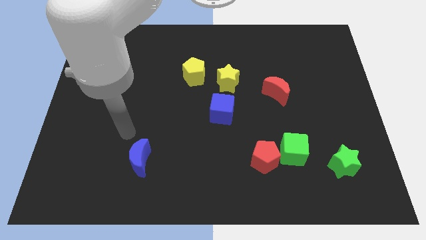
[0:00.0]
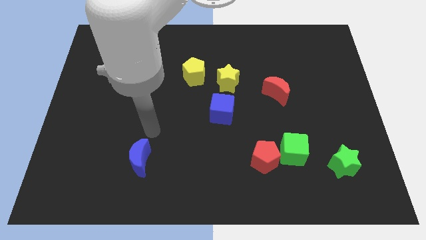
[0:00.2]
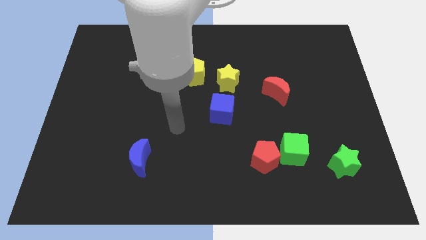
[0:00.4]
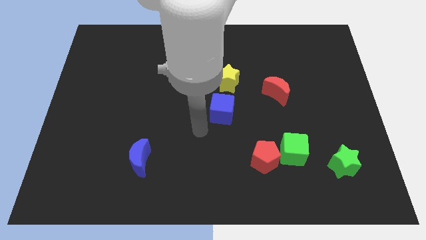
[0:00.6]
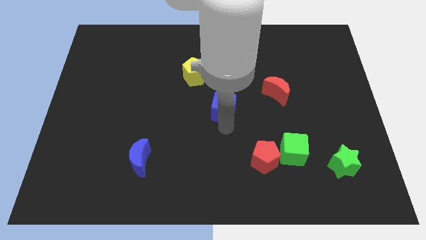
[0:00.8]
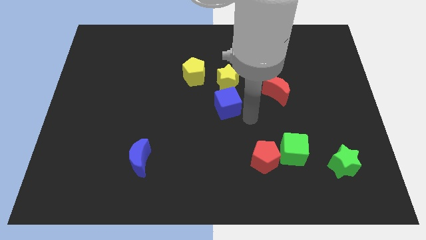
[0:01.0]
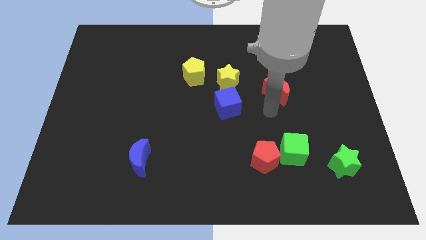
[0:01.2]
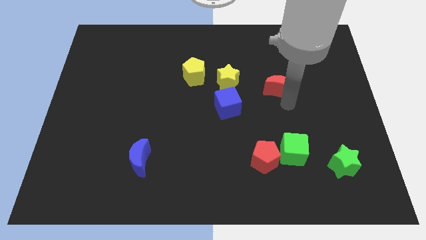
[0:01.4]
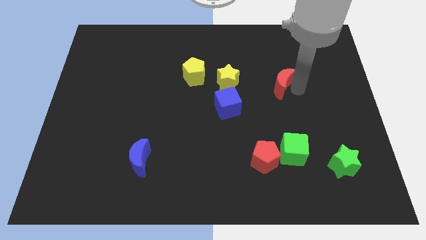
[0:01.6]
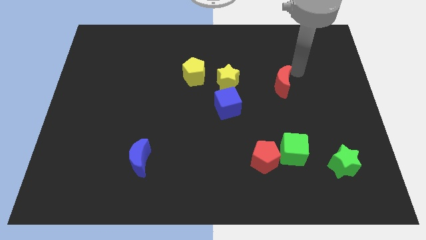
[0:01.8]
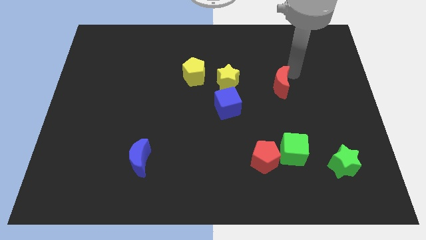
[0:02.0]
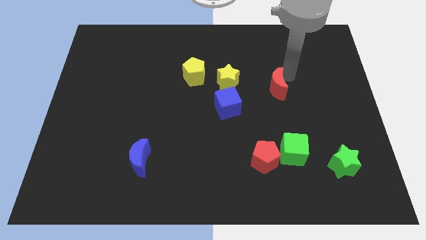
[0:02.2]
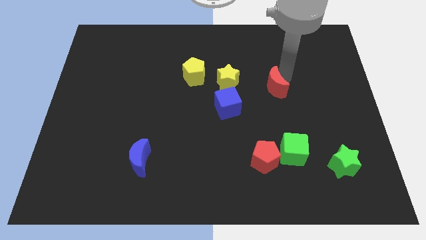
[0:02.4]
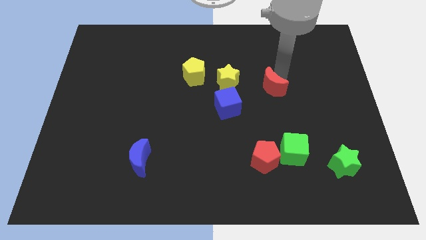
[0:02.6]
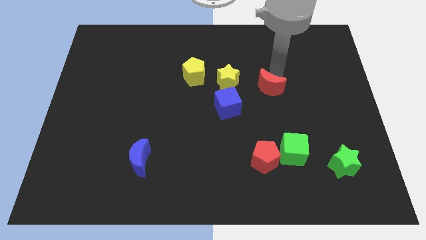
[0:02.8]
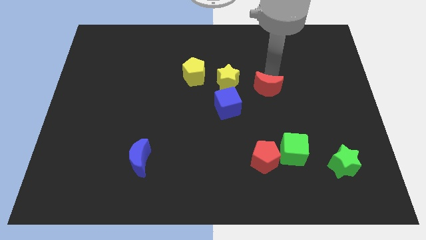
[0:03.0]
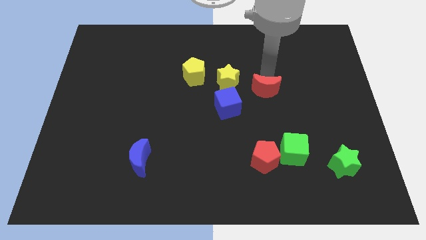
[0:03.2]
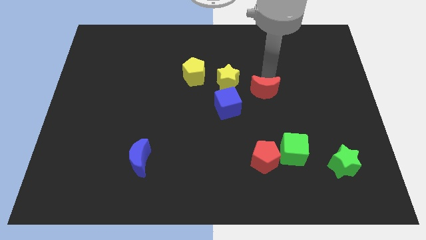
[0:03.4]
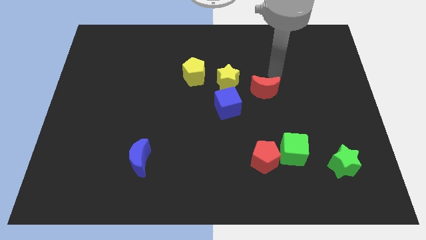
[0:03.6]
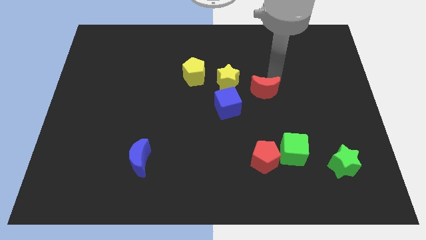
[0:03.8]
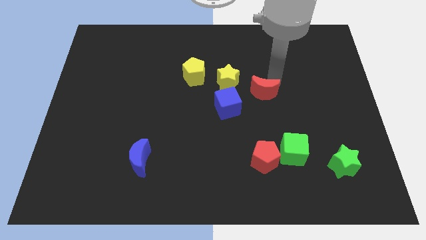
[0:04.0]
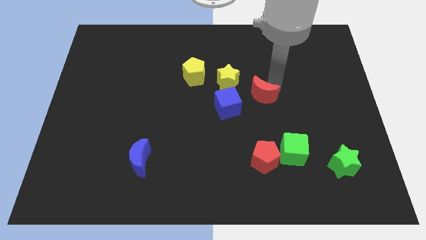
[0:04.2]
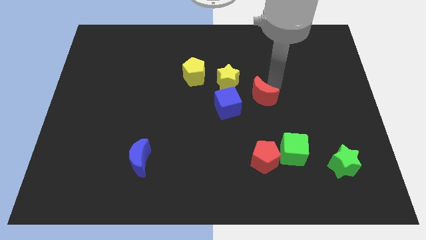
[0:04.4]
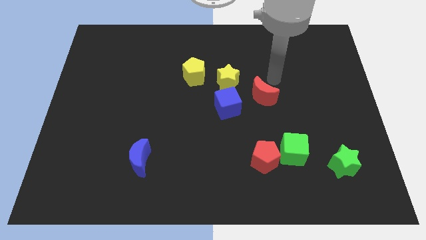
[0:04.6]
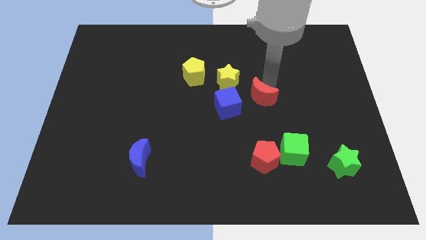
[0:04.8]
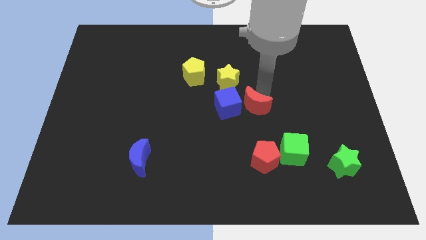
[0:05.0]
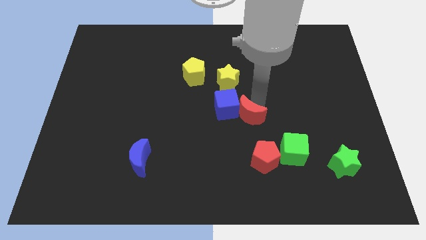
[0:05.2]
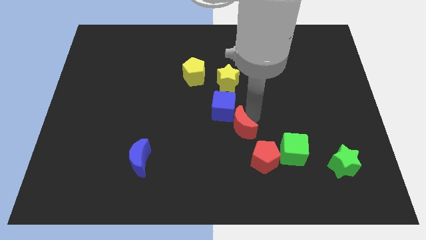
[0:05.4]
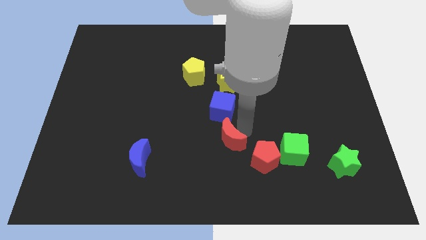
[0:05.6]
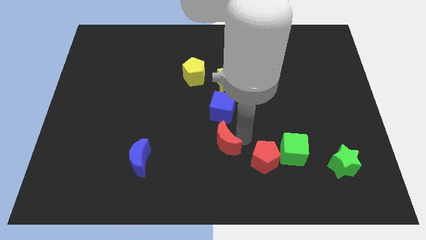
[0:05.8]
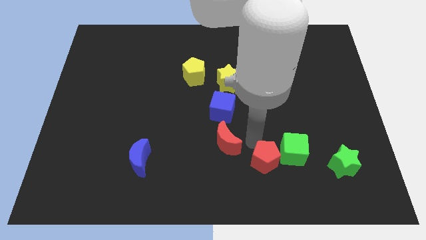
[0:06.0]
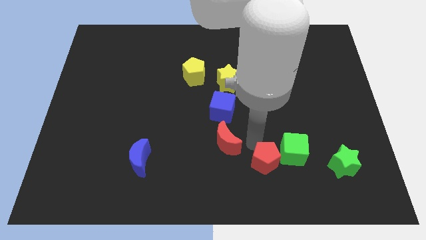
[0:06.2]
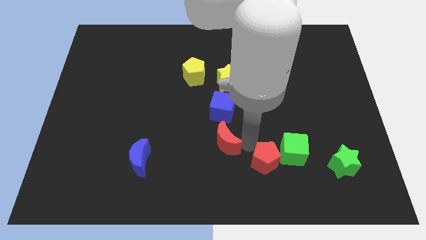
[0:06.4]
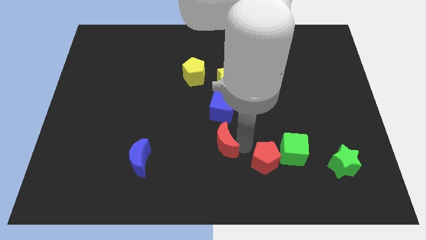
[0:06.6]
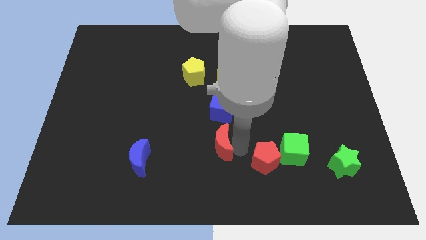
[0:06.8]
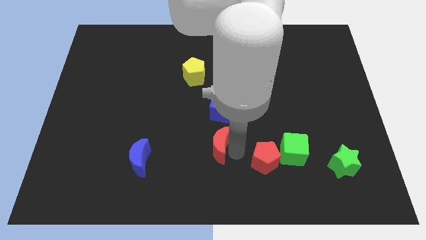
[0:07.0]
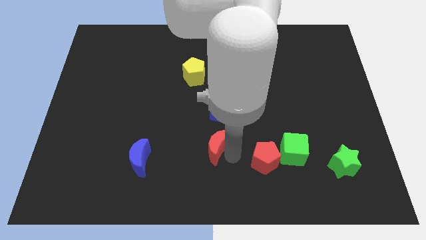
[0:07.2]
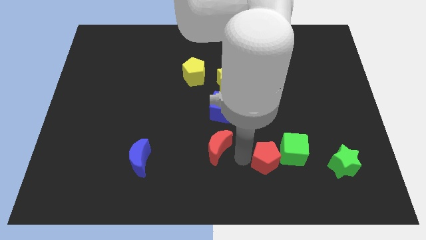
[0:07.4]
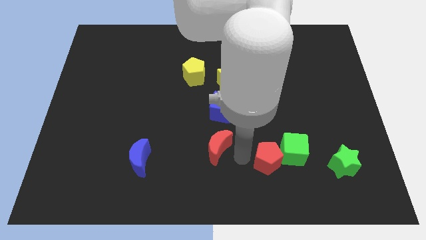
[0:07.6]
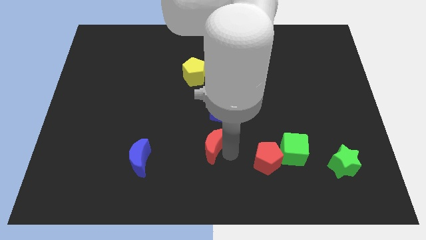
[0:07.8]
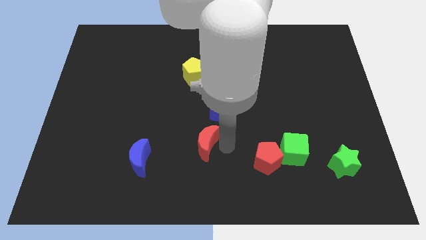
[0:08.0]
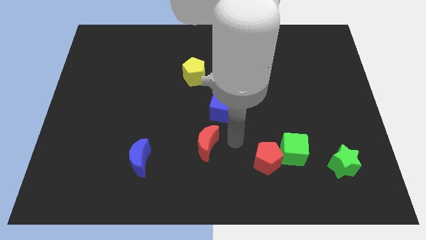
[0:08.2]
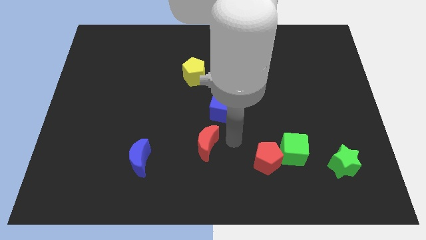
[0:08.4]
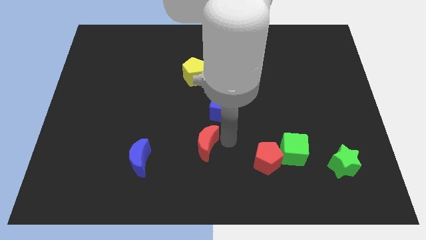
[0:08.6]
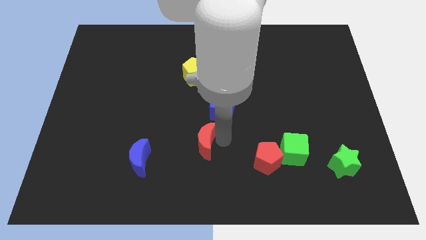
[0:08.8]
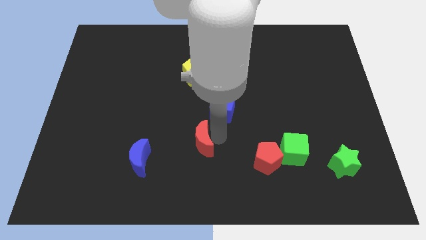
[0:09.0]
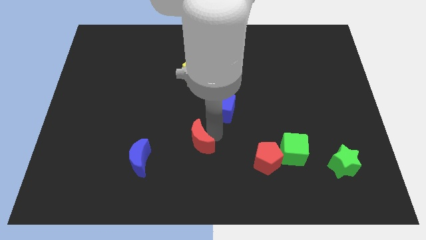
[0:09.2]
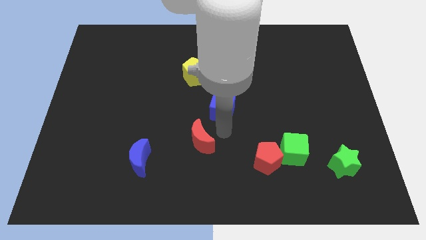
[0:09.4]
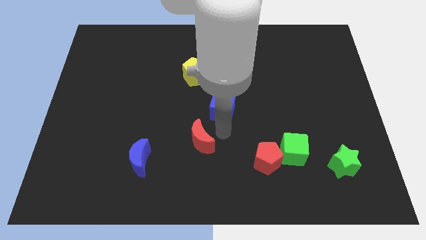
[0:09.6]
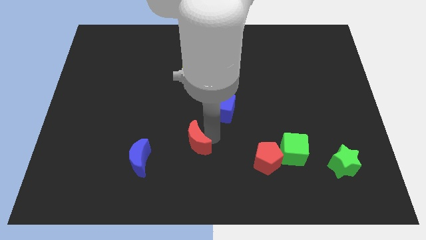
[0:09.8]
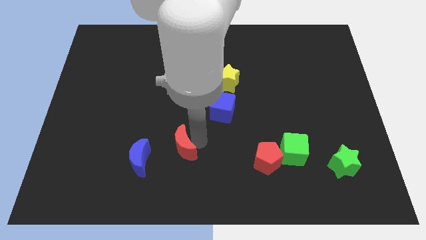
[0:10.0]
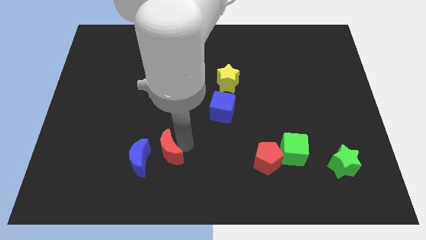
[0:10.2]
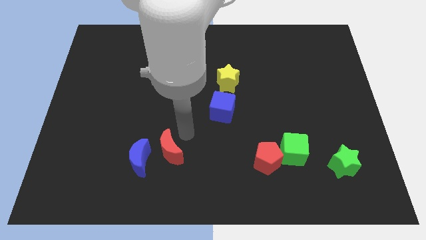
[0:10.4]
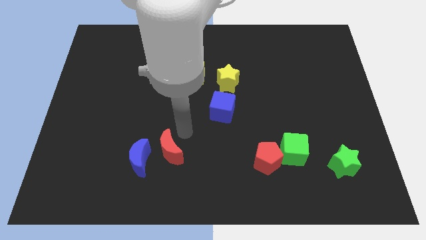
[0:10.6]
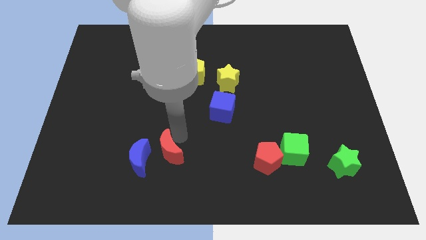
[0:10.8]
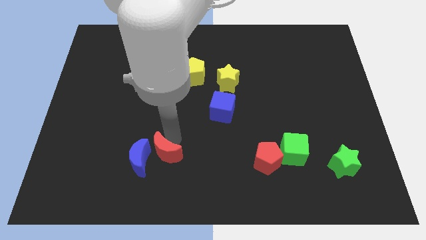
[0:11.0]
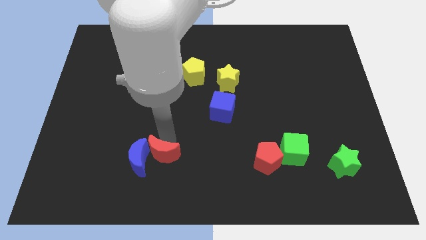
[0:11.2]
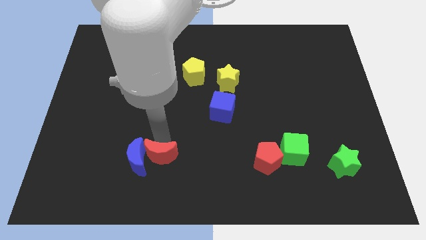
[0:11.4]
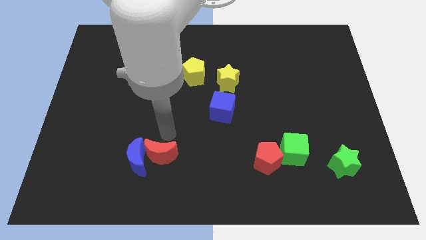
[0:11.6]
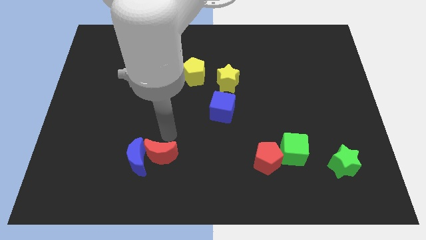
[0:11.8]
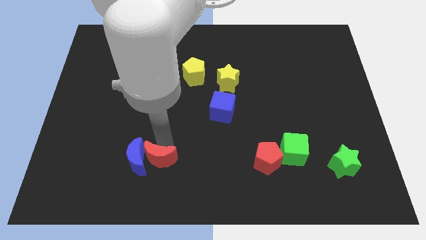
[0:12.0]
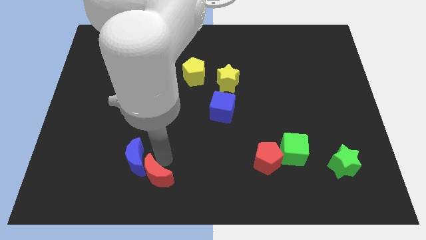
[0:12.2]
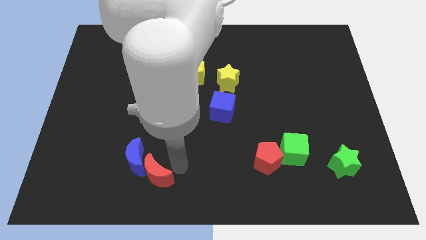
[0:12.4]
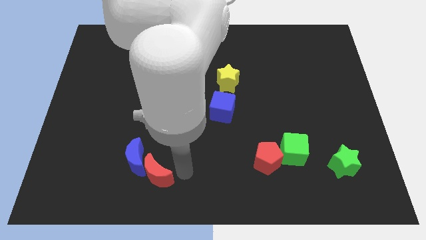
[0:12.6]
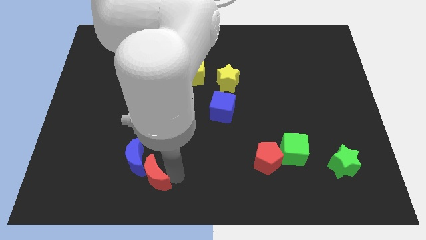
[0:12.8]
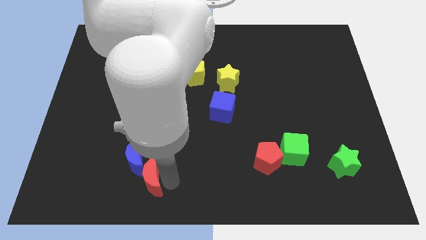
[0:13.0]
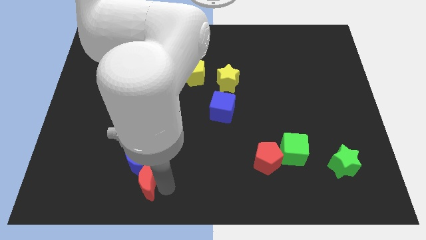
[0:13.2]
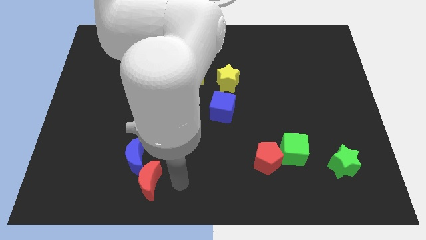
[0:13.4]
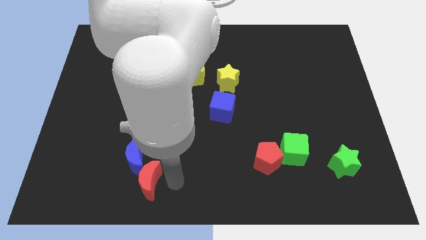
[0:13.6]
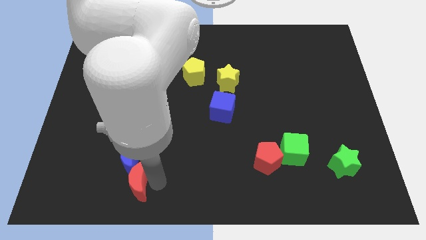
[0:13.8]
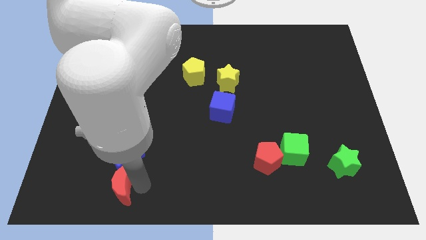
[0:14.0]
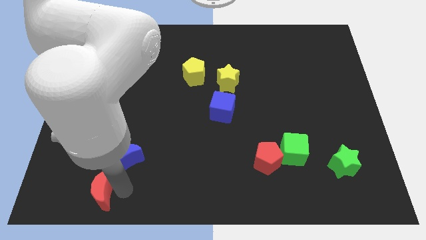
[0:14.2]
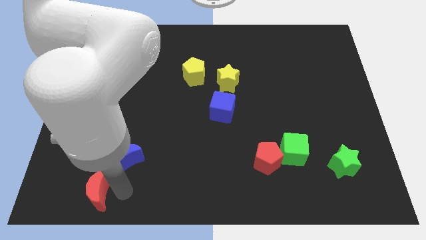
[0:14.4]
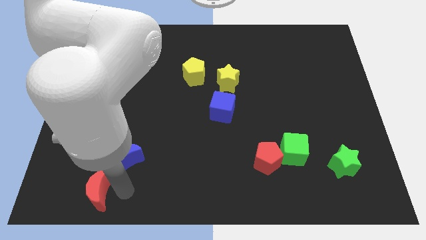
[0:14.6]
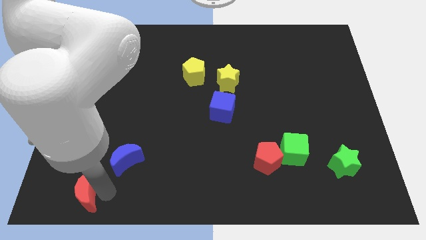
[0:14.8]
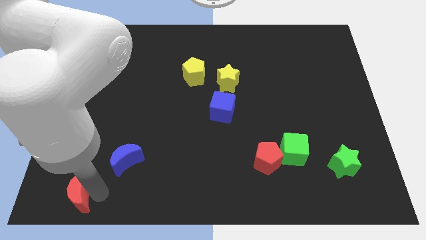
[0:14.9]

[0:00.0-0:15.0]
push the red moon to the bottom left corner
